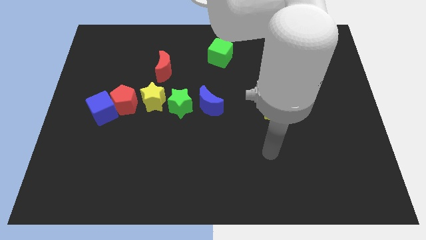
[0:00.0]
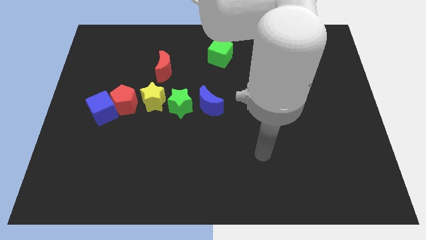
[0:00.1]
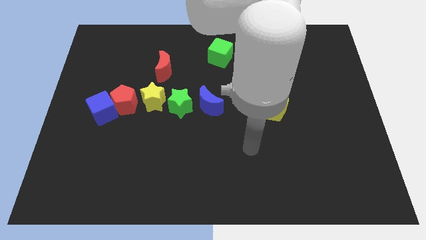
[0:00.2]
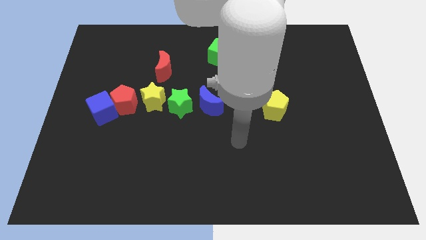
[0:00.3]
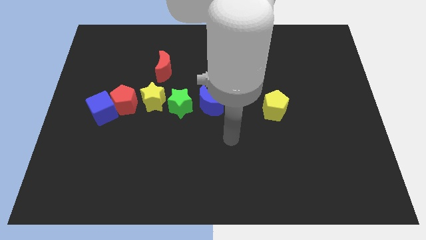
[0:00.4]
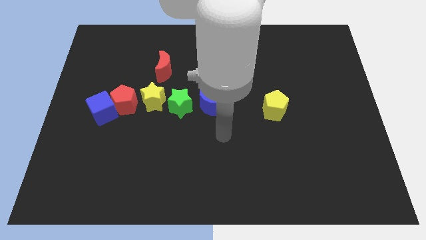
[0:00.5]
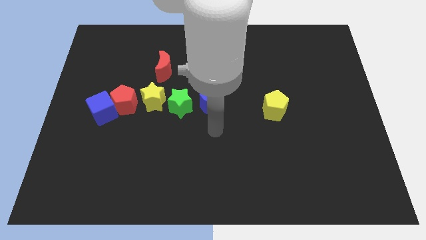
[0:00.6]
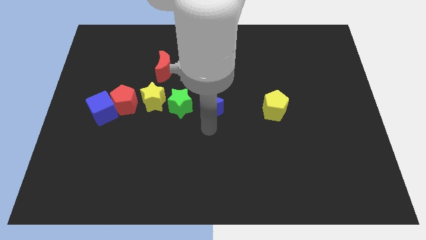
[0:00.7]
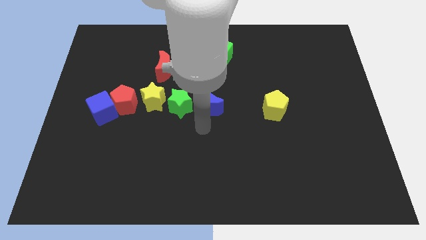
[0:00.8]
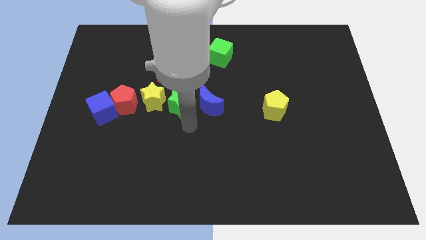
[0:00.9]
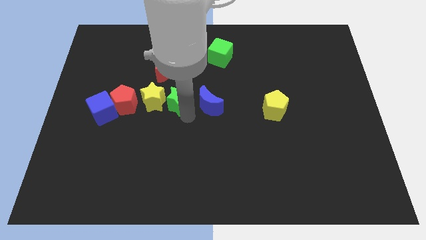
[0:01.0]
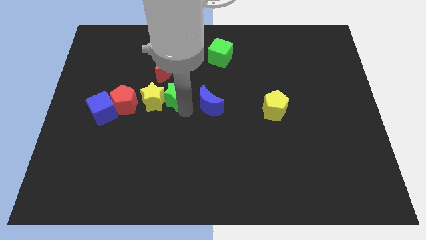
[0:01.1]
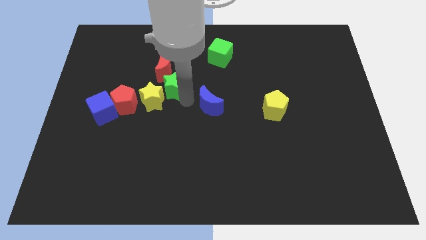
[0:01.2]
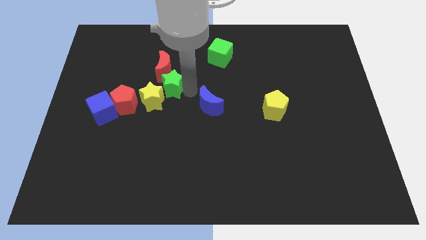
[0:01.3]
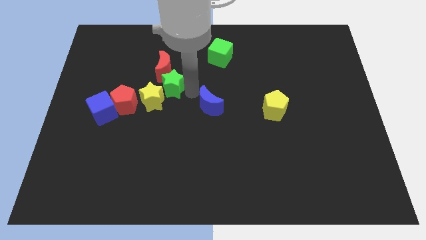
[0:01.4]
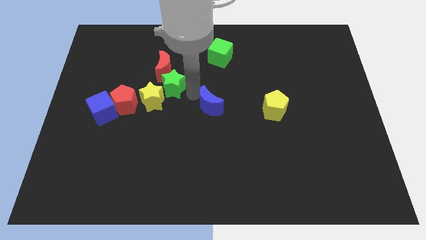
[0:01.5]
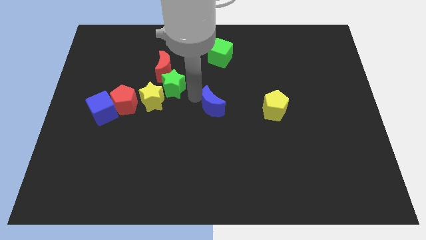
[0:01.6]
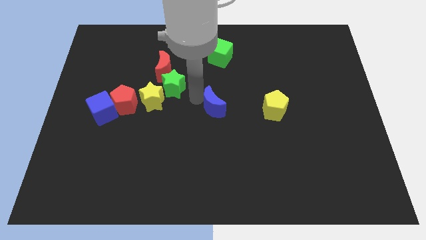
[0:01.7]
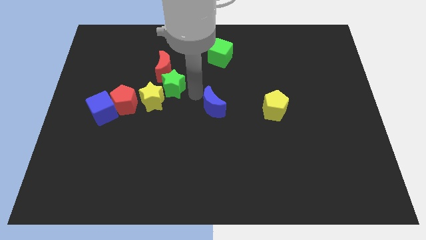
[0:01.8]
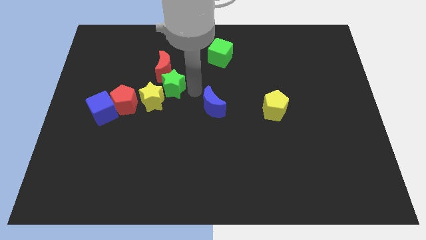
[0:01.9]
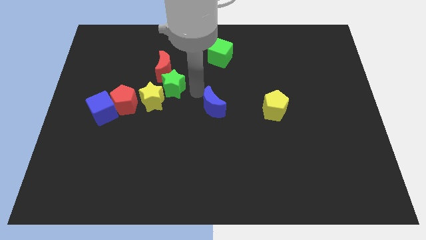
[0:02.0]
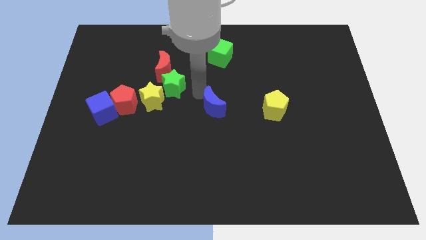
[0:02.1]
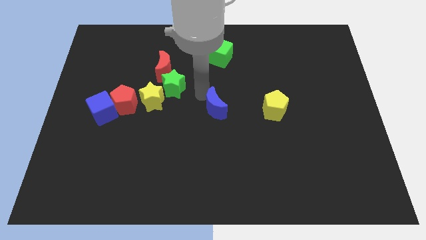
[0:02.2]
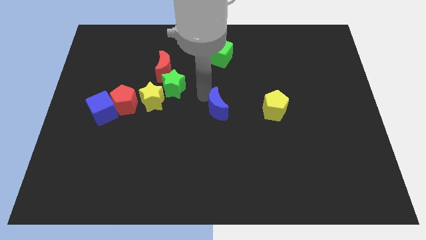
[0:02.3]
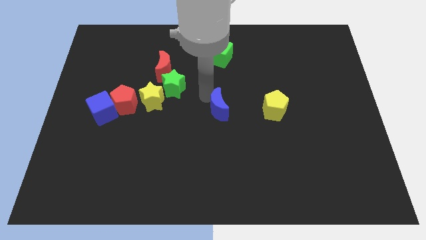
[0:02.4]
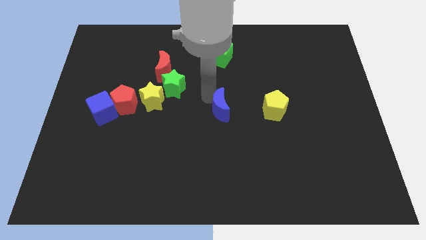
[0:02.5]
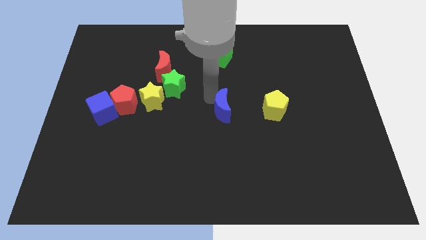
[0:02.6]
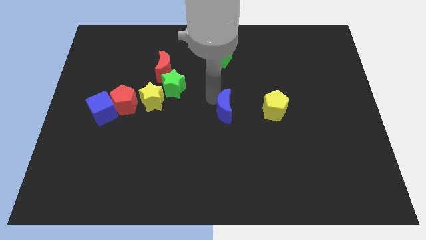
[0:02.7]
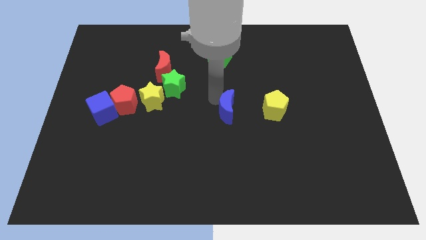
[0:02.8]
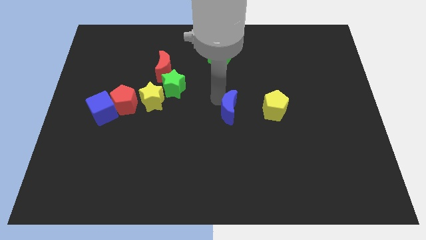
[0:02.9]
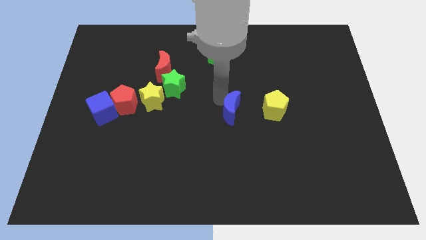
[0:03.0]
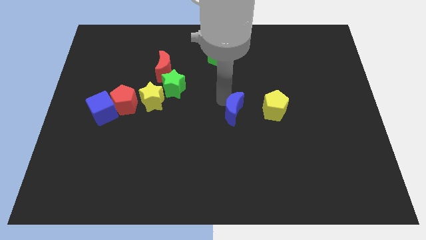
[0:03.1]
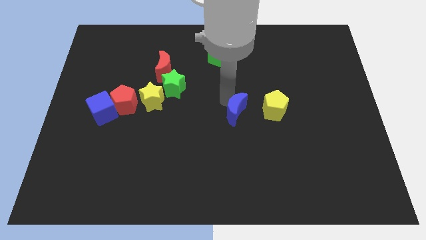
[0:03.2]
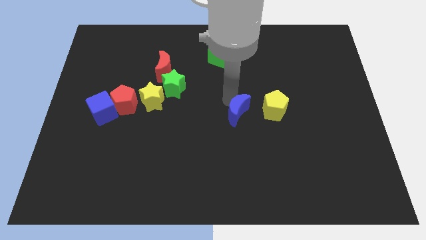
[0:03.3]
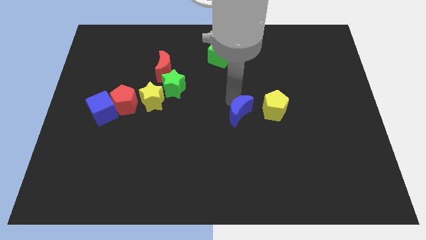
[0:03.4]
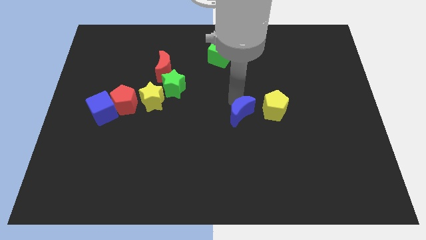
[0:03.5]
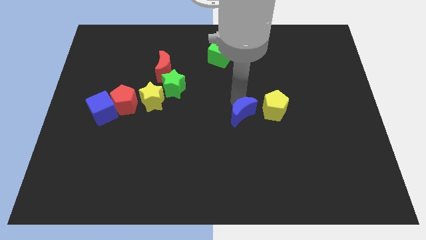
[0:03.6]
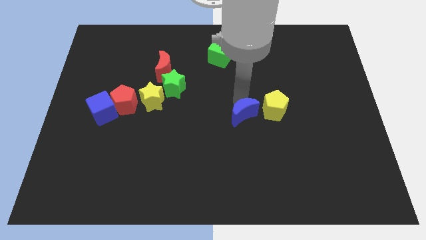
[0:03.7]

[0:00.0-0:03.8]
slightly slide the blue moon down and to the right diagonally

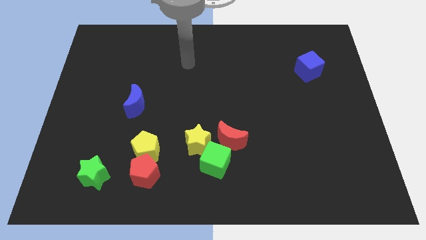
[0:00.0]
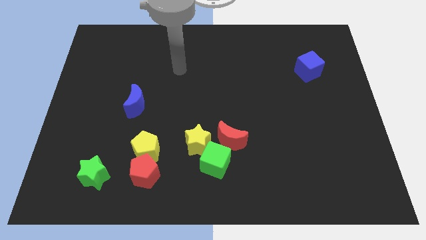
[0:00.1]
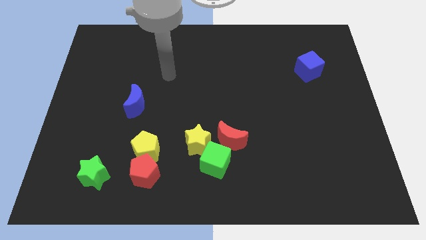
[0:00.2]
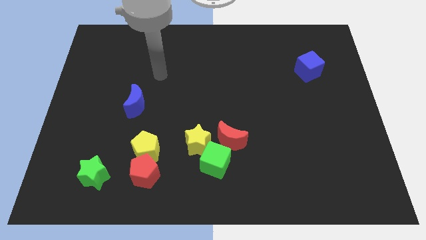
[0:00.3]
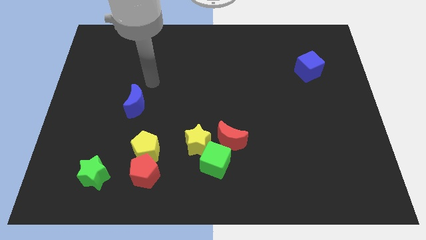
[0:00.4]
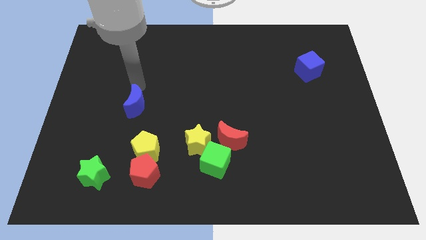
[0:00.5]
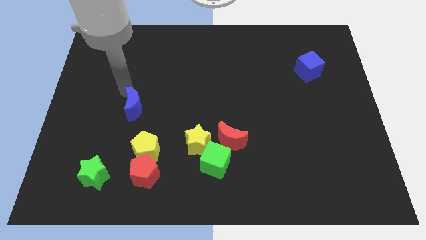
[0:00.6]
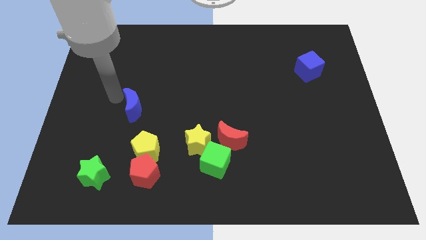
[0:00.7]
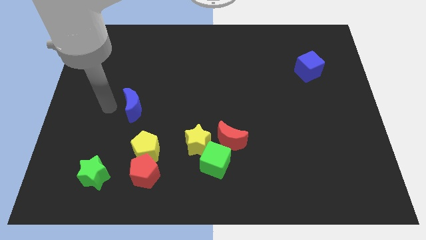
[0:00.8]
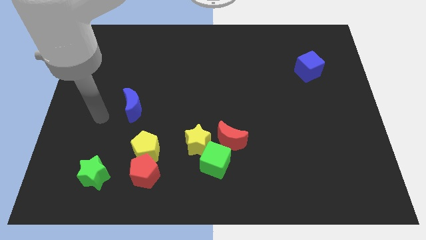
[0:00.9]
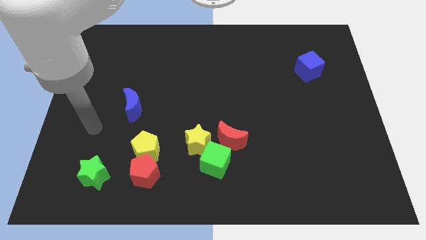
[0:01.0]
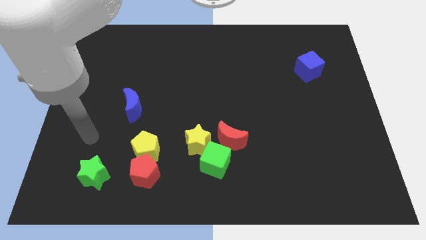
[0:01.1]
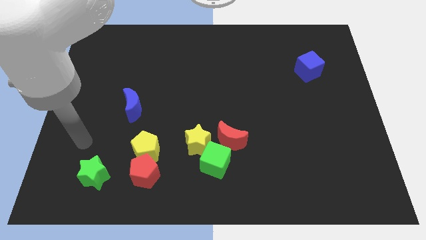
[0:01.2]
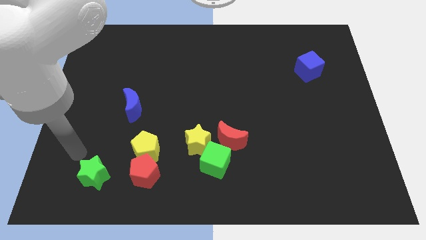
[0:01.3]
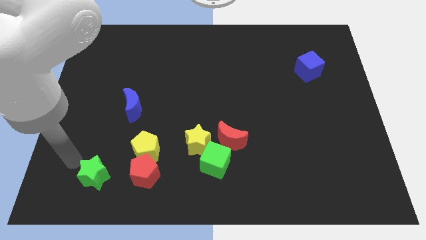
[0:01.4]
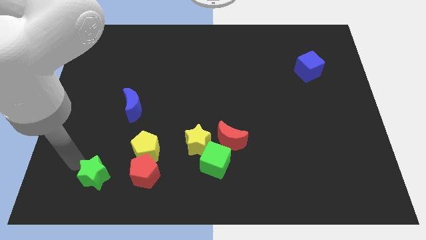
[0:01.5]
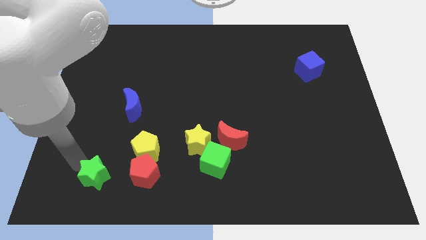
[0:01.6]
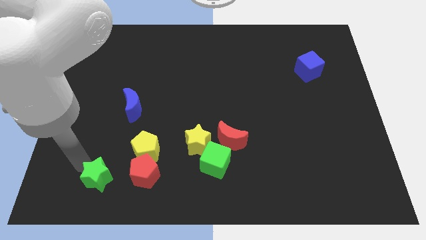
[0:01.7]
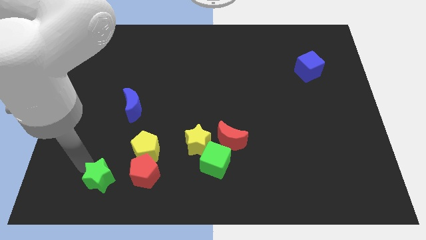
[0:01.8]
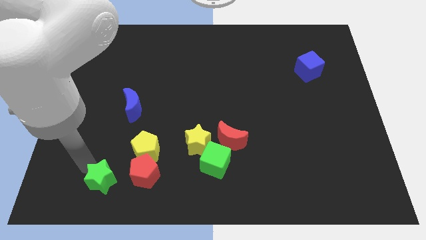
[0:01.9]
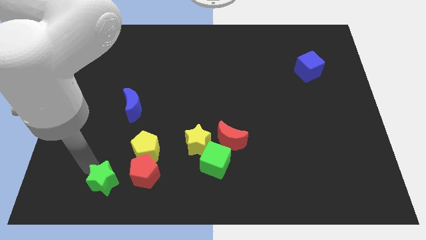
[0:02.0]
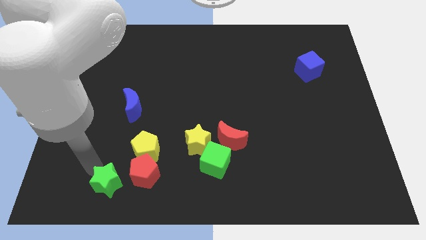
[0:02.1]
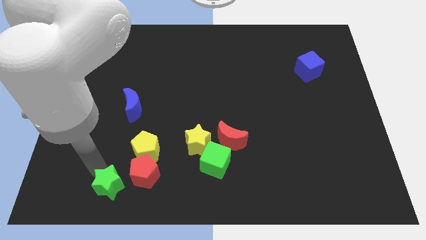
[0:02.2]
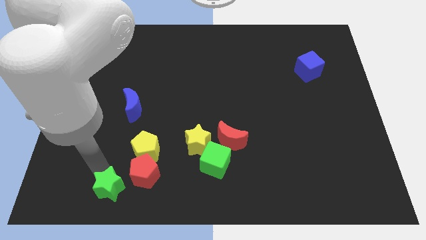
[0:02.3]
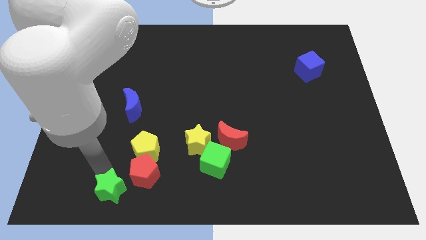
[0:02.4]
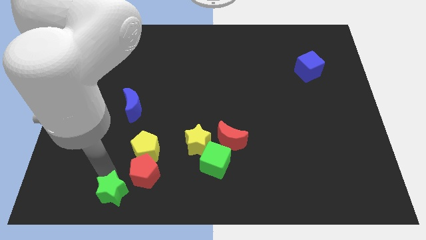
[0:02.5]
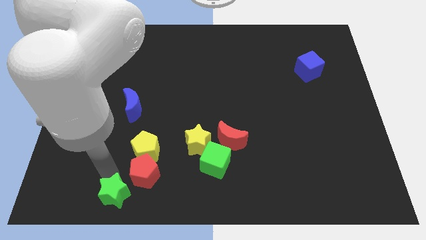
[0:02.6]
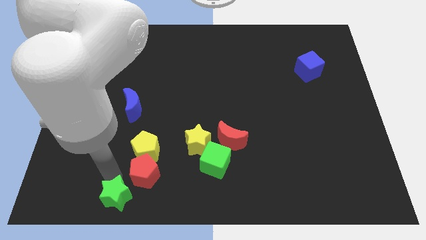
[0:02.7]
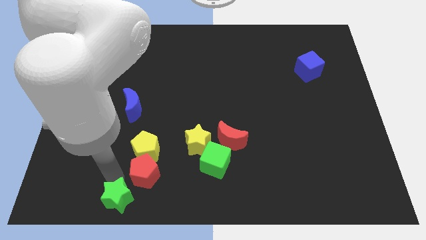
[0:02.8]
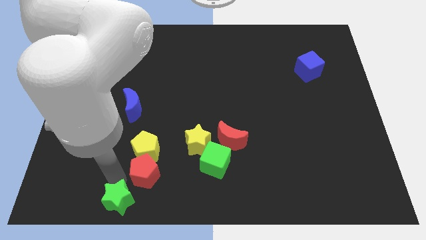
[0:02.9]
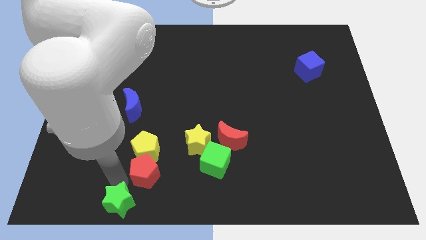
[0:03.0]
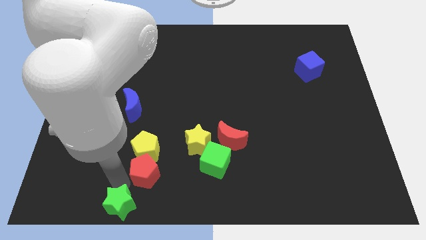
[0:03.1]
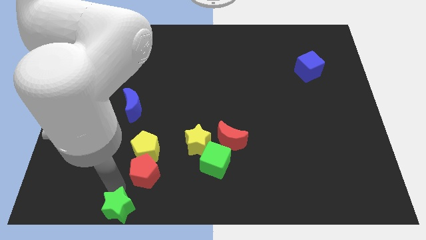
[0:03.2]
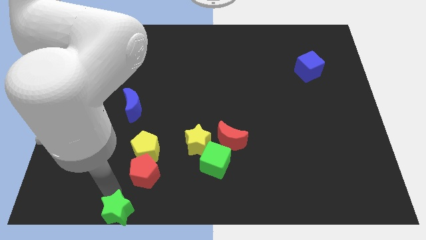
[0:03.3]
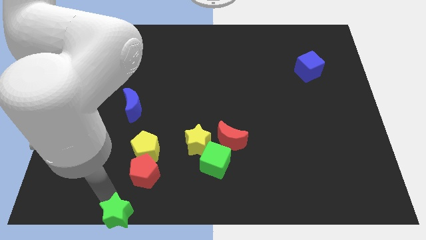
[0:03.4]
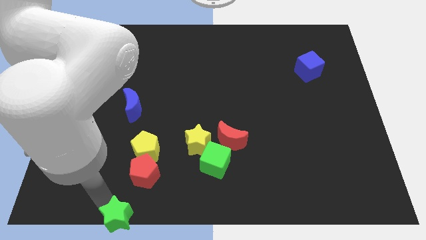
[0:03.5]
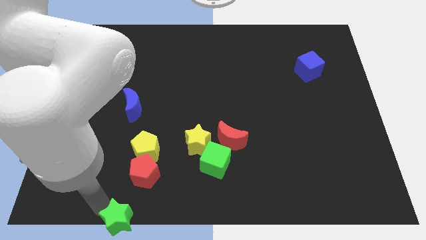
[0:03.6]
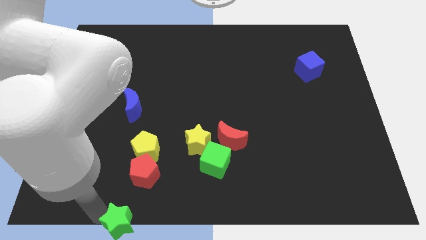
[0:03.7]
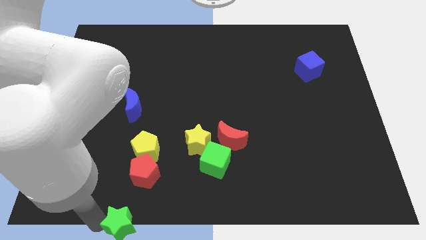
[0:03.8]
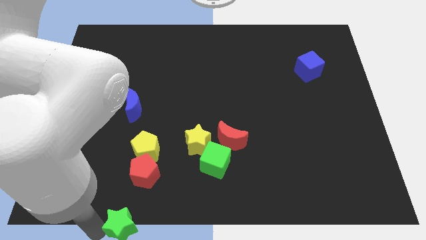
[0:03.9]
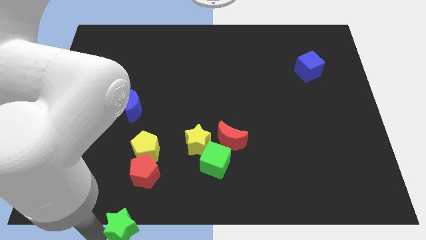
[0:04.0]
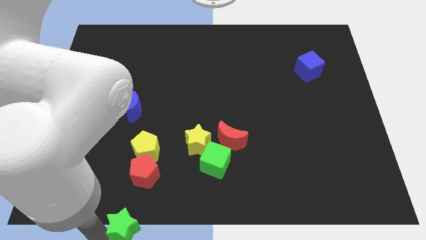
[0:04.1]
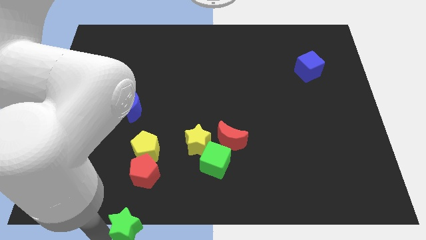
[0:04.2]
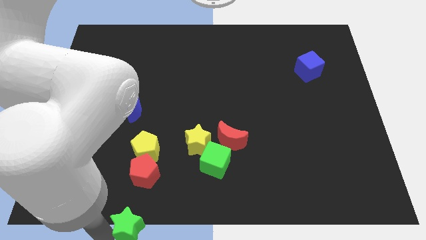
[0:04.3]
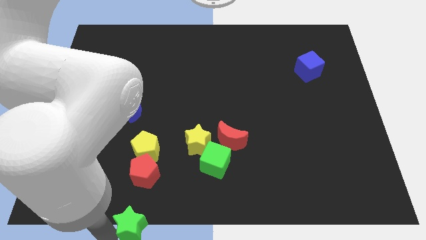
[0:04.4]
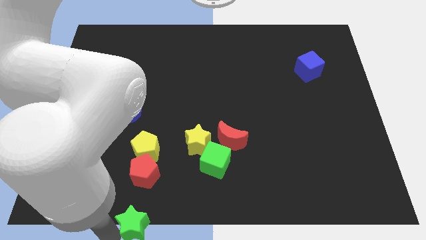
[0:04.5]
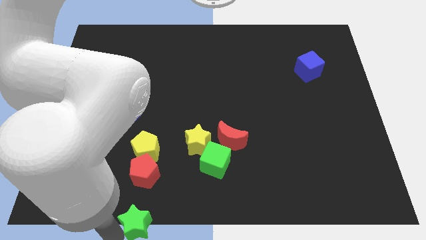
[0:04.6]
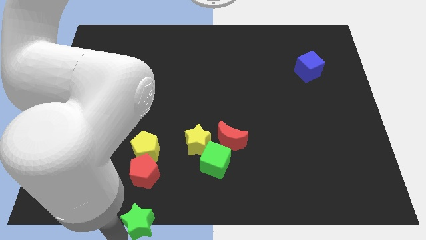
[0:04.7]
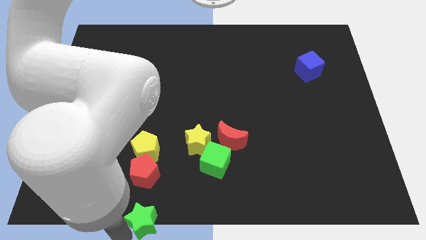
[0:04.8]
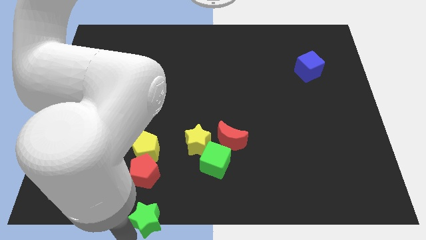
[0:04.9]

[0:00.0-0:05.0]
push the green star to the right somewhat
